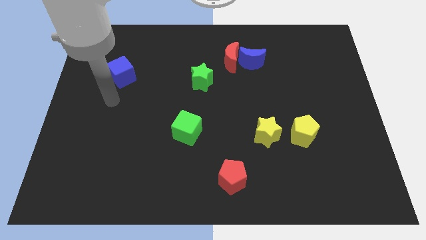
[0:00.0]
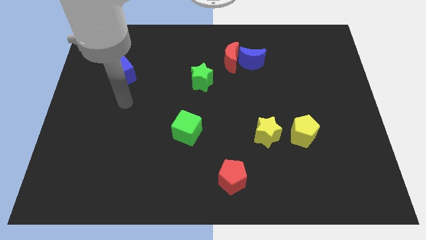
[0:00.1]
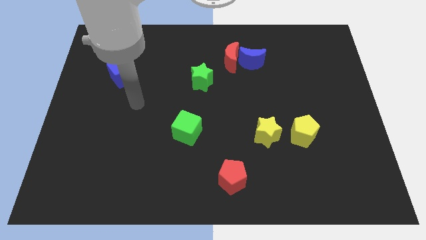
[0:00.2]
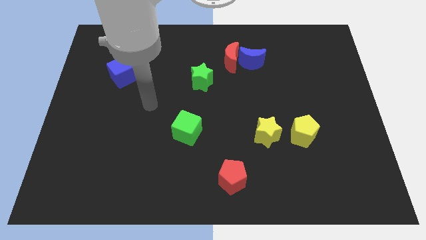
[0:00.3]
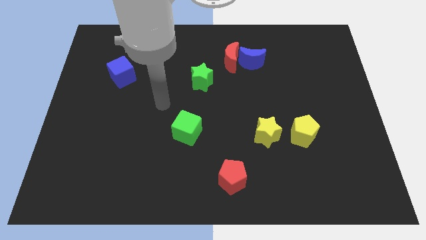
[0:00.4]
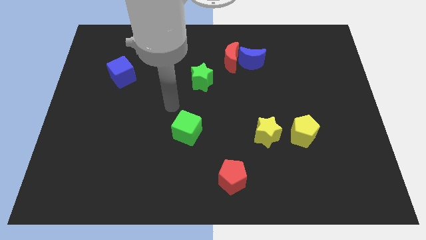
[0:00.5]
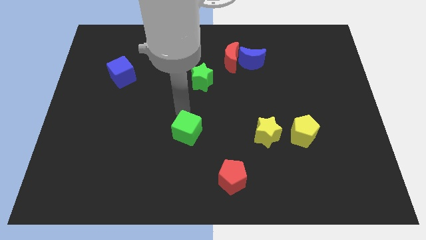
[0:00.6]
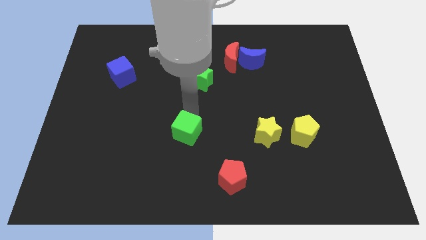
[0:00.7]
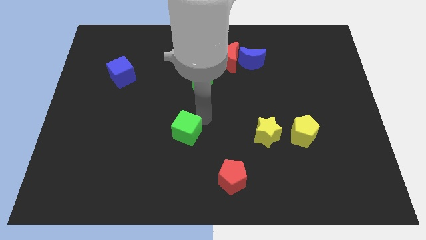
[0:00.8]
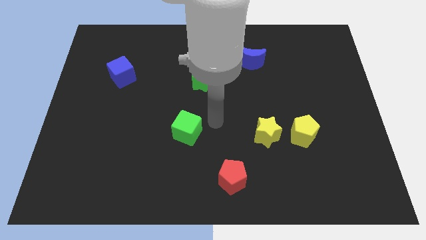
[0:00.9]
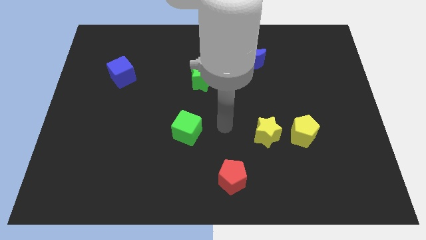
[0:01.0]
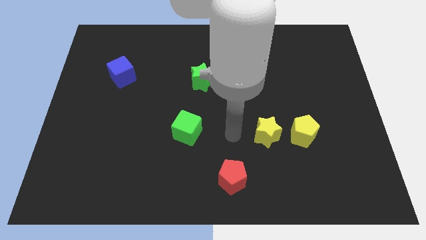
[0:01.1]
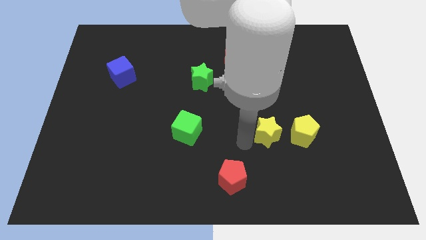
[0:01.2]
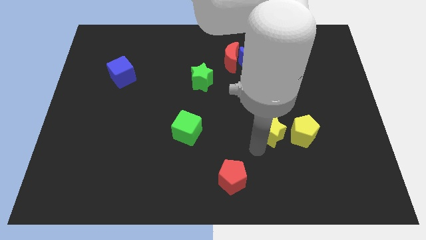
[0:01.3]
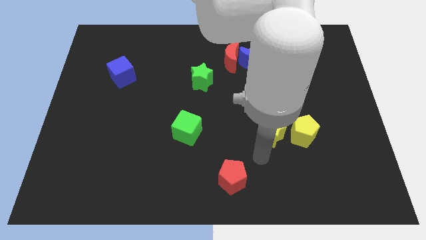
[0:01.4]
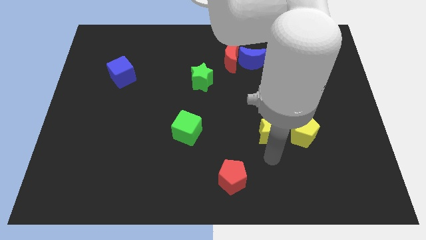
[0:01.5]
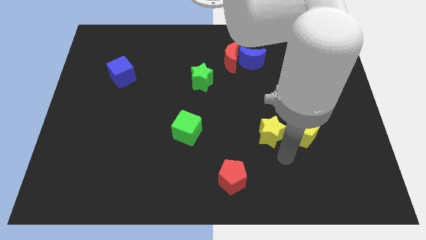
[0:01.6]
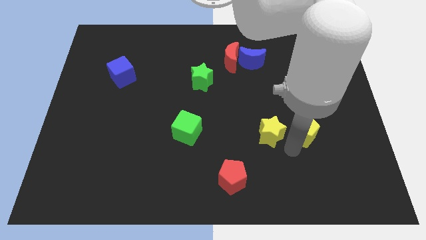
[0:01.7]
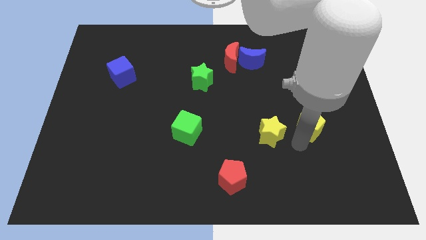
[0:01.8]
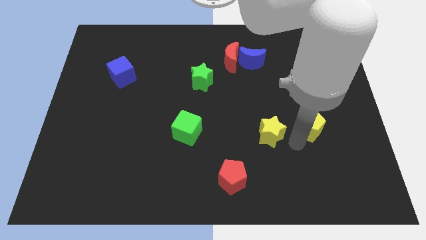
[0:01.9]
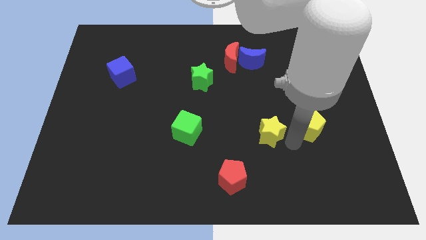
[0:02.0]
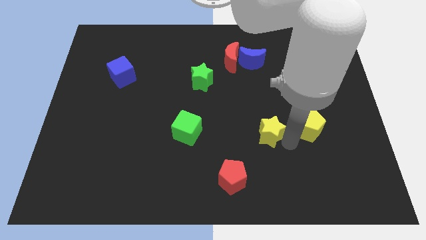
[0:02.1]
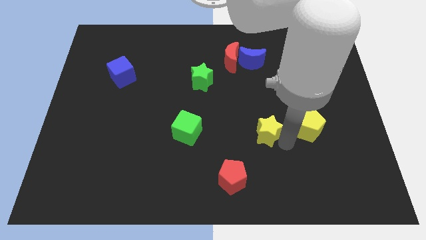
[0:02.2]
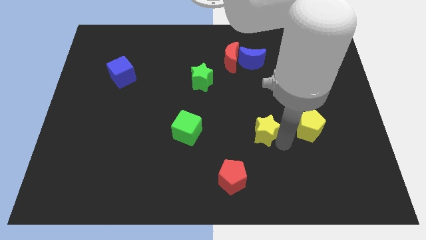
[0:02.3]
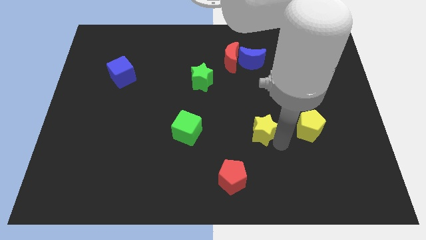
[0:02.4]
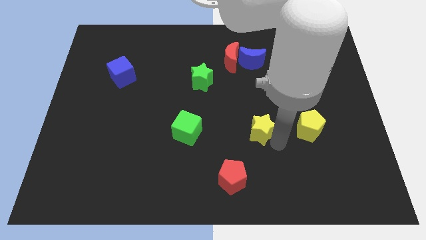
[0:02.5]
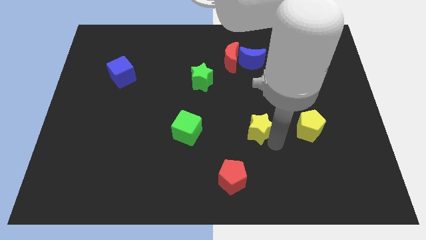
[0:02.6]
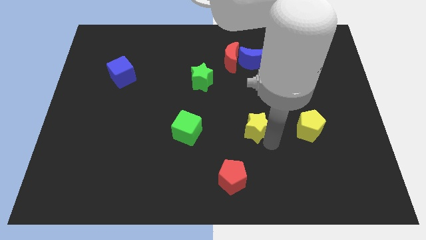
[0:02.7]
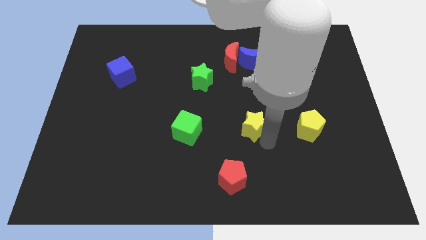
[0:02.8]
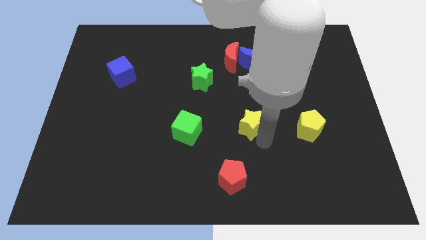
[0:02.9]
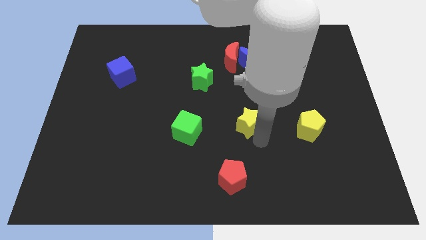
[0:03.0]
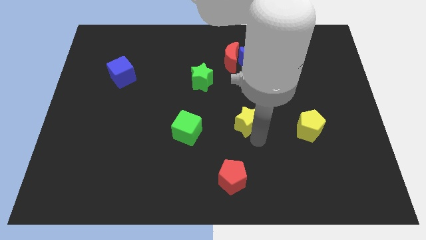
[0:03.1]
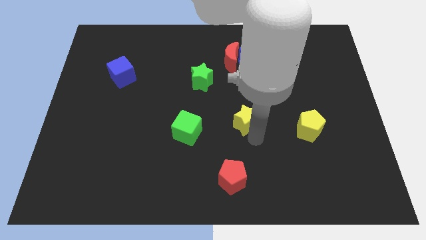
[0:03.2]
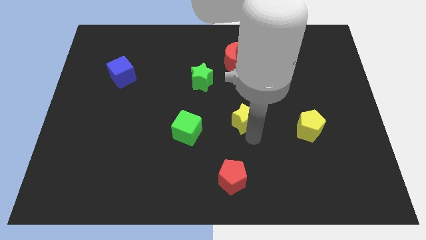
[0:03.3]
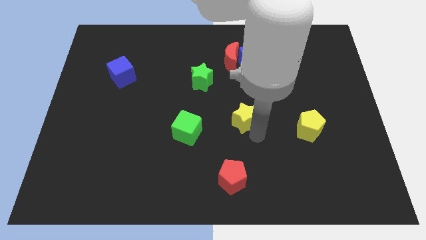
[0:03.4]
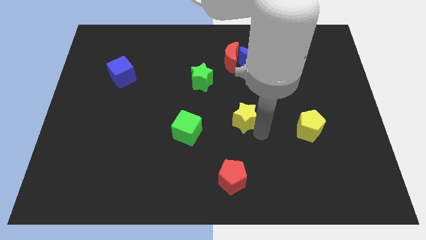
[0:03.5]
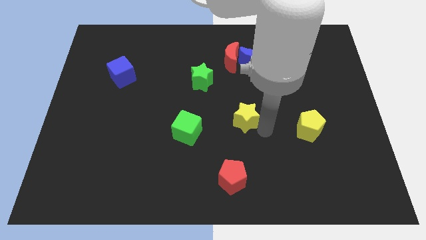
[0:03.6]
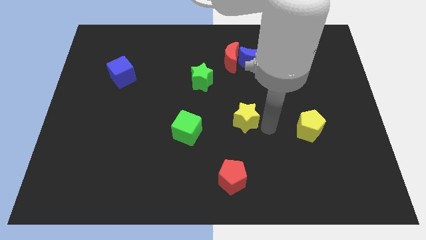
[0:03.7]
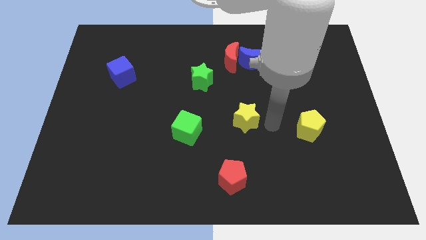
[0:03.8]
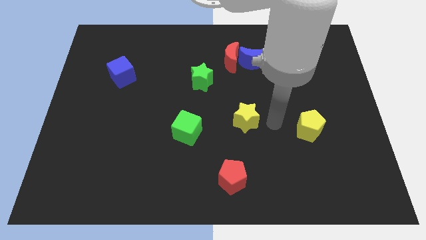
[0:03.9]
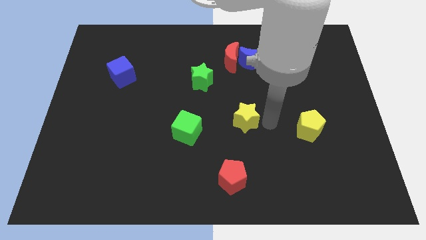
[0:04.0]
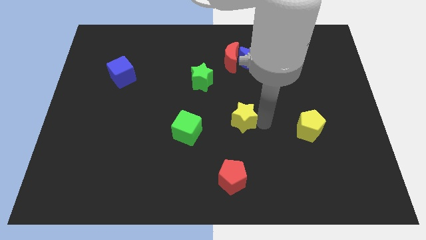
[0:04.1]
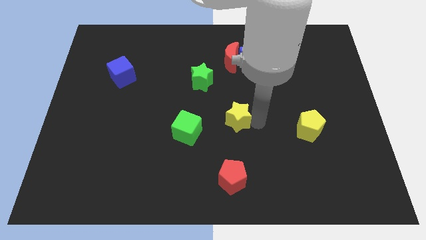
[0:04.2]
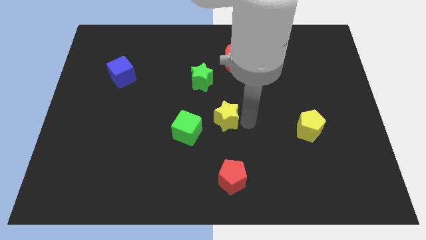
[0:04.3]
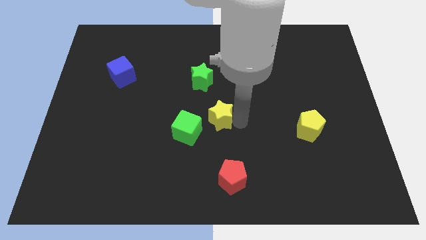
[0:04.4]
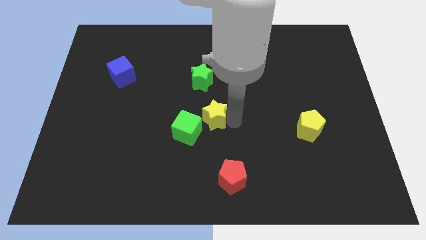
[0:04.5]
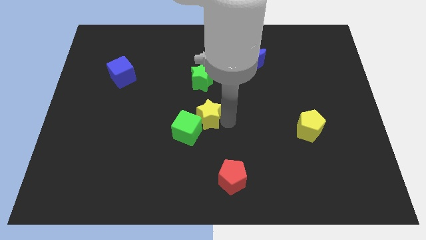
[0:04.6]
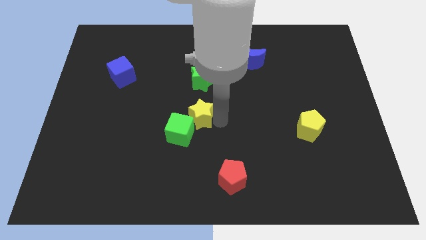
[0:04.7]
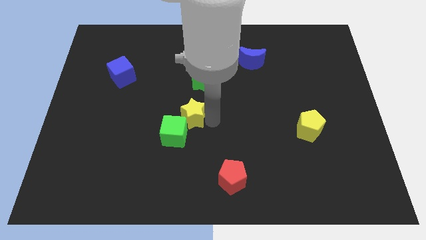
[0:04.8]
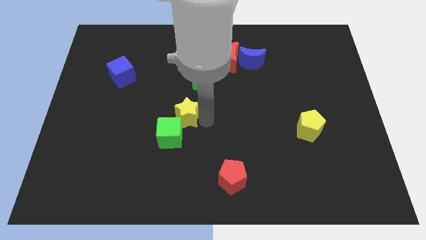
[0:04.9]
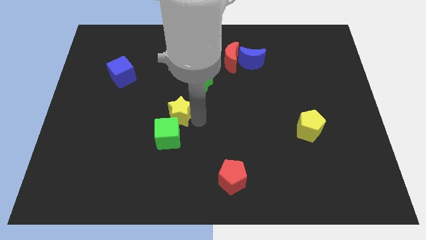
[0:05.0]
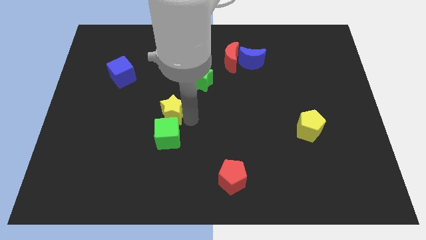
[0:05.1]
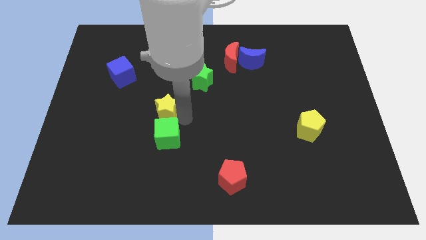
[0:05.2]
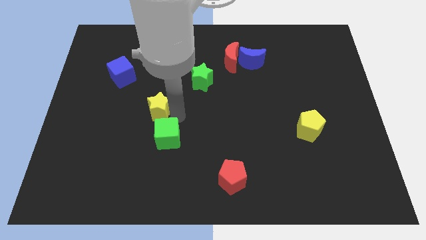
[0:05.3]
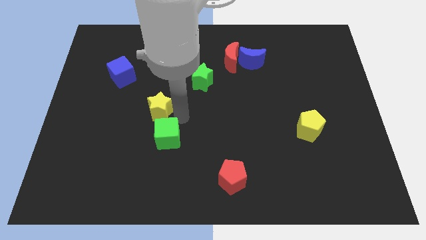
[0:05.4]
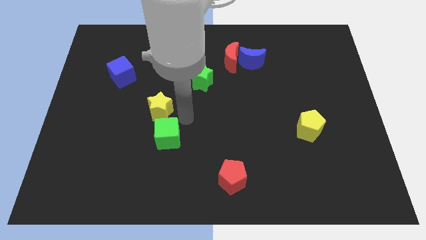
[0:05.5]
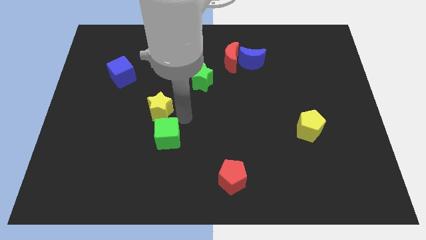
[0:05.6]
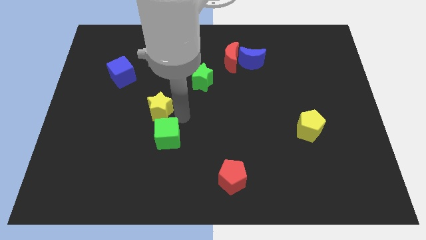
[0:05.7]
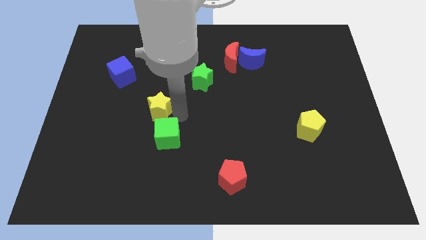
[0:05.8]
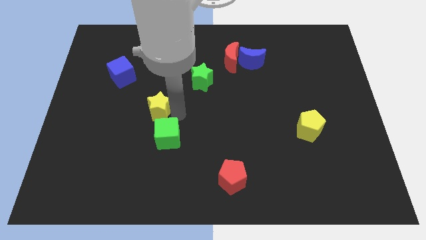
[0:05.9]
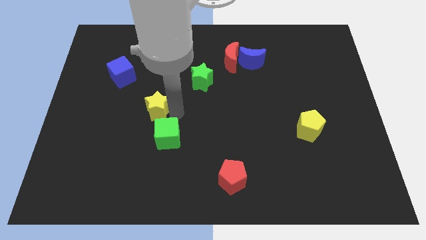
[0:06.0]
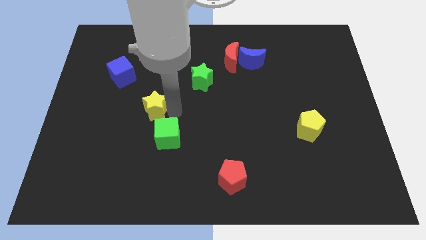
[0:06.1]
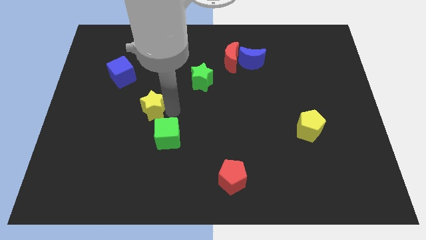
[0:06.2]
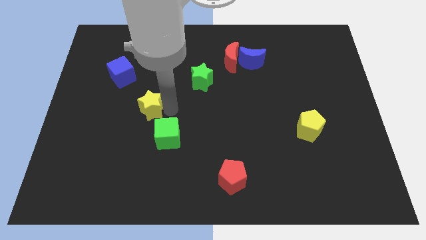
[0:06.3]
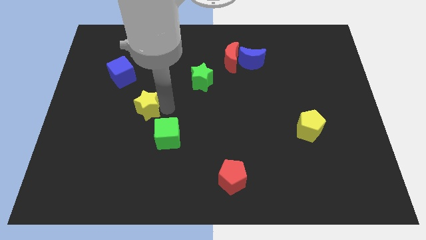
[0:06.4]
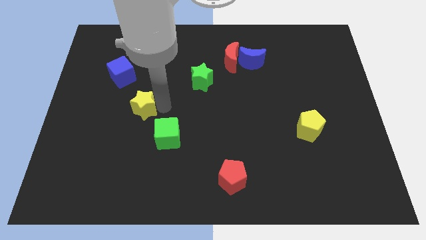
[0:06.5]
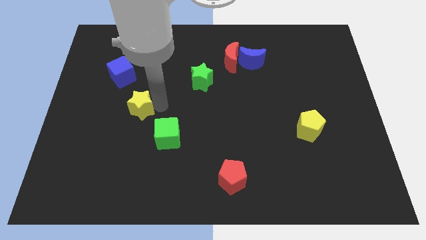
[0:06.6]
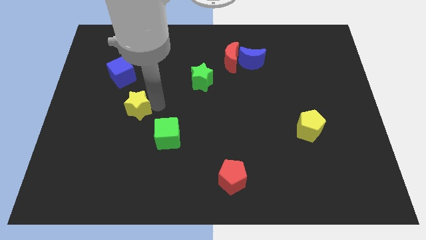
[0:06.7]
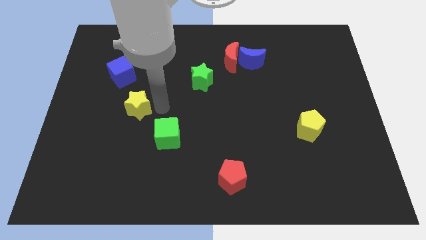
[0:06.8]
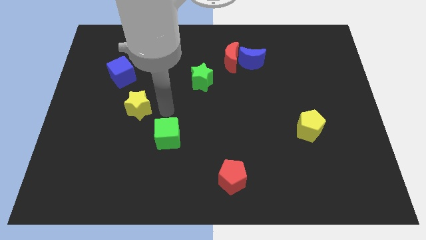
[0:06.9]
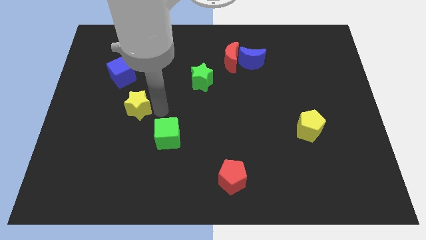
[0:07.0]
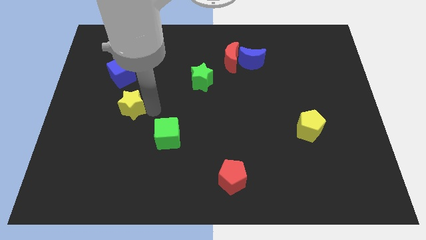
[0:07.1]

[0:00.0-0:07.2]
put the yellow star below the blue cube
